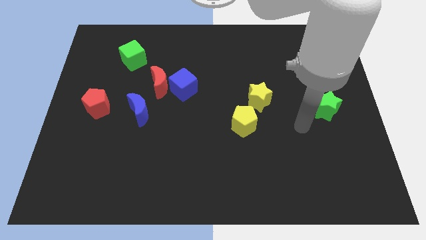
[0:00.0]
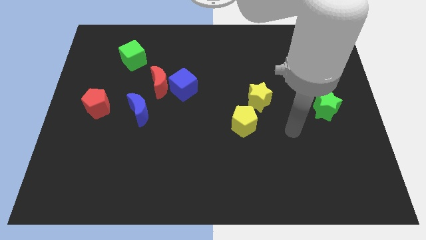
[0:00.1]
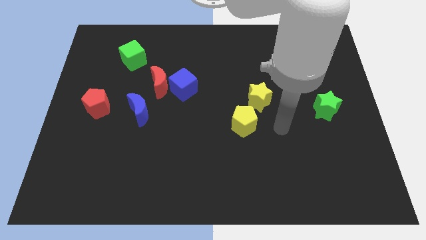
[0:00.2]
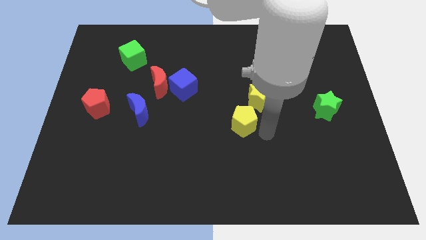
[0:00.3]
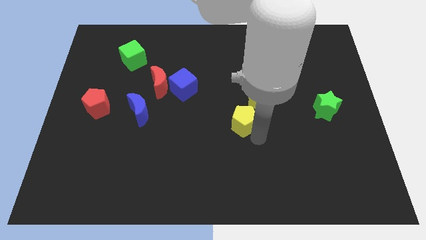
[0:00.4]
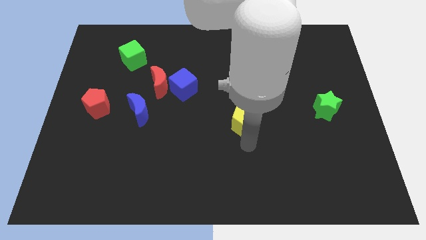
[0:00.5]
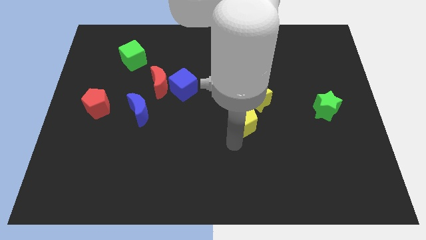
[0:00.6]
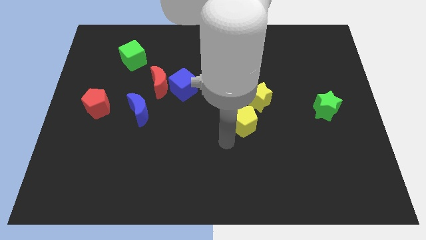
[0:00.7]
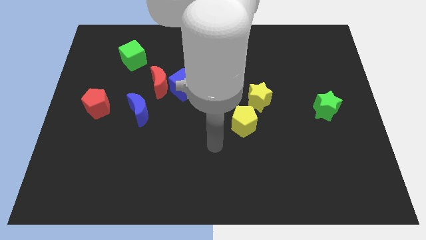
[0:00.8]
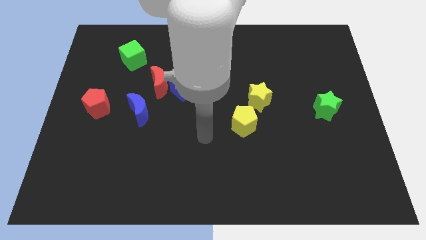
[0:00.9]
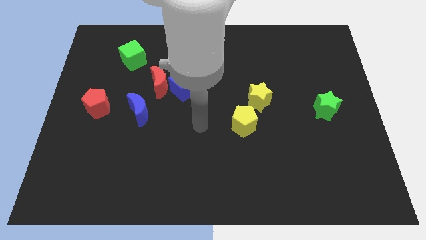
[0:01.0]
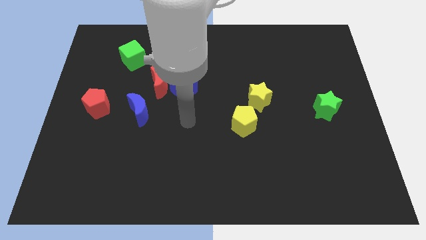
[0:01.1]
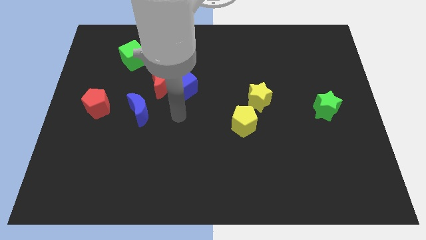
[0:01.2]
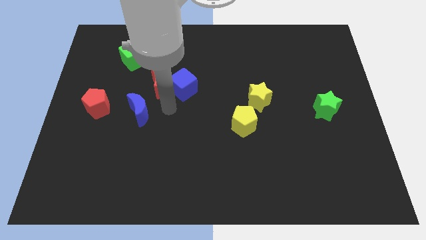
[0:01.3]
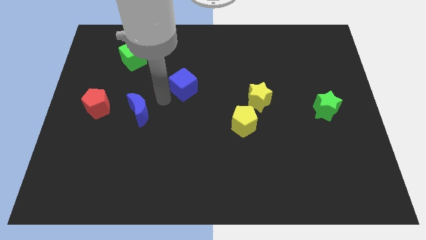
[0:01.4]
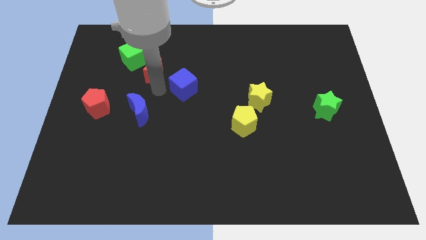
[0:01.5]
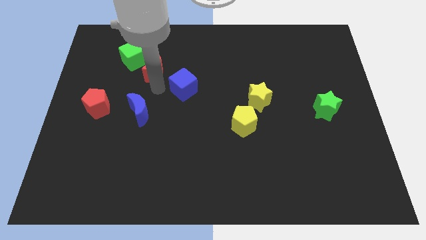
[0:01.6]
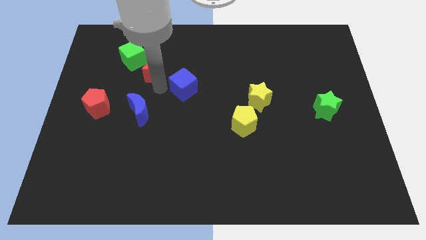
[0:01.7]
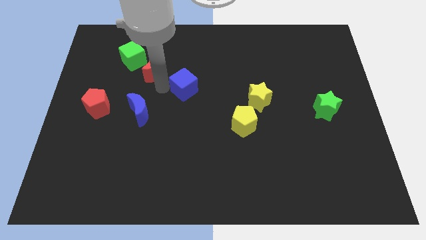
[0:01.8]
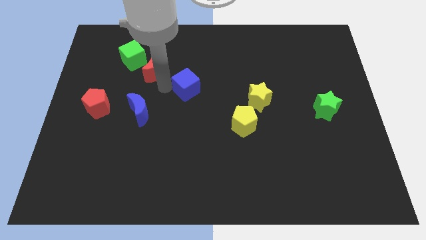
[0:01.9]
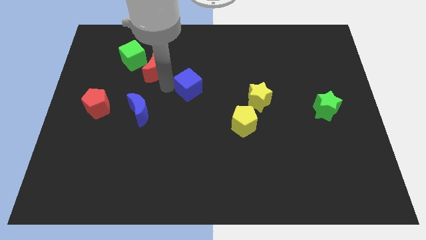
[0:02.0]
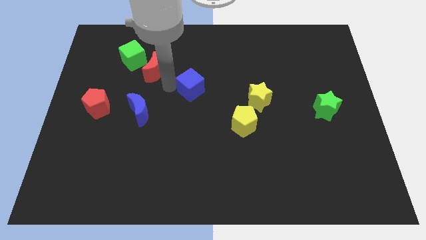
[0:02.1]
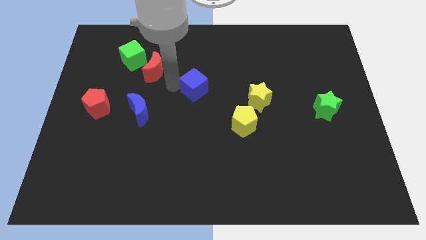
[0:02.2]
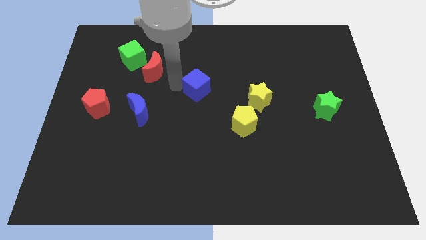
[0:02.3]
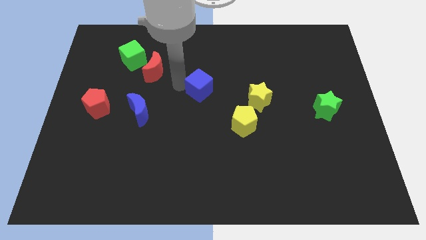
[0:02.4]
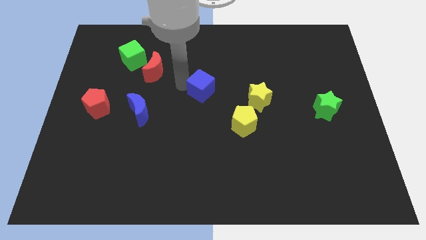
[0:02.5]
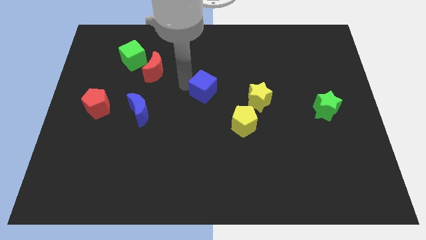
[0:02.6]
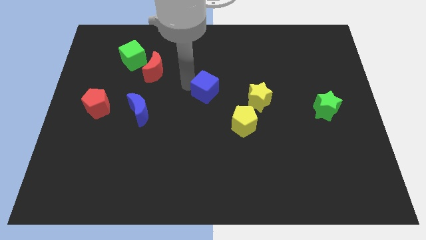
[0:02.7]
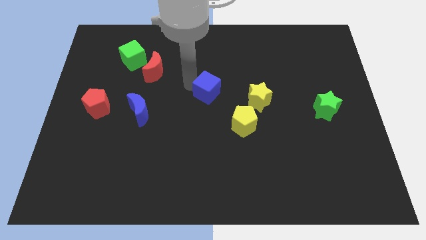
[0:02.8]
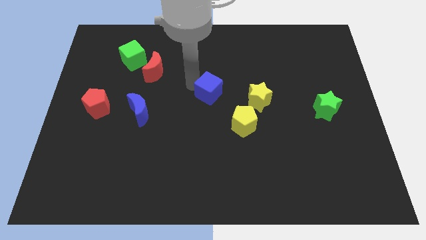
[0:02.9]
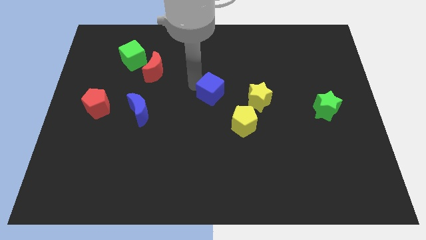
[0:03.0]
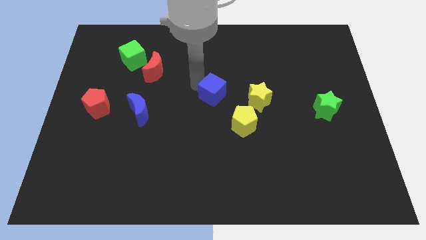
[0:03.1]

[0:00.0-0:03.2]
slightly move the blue cube to the right

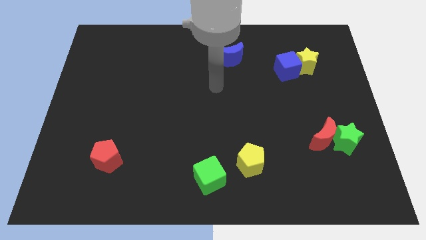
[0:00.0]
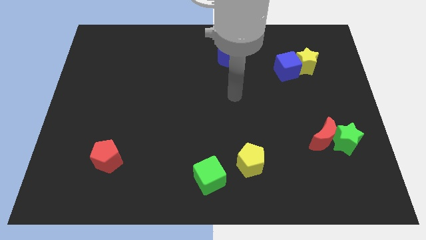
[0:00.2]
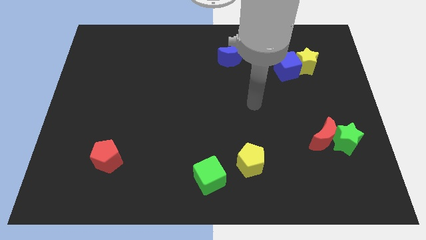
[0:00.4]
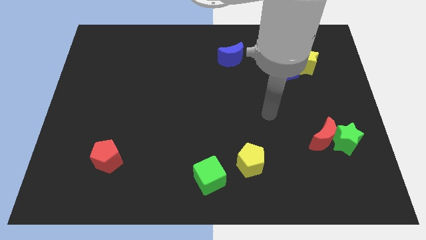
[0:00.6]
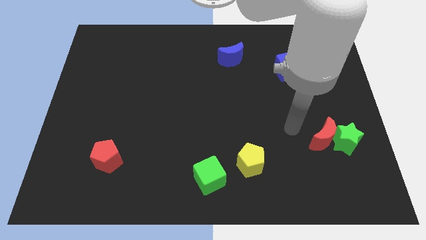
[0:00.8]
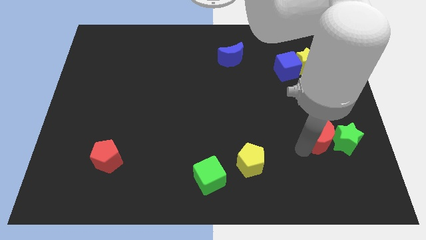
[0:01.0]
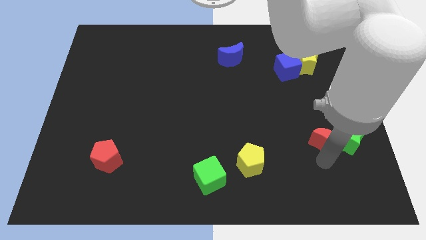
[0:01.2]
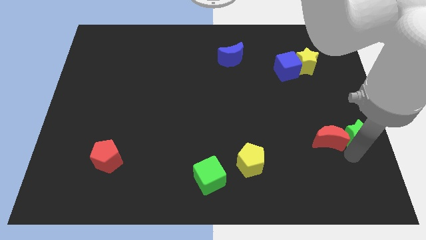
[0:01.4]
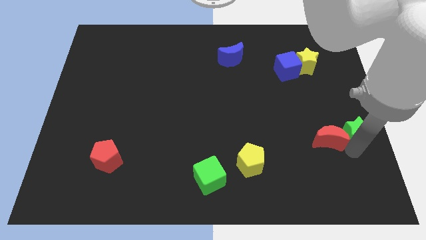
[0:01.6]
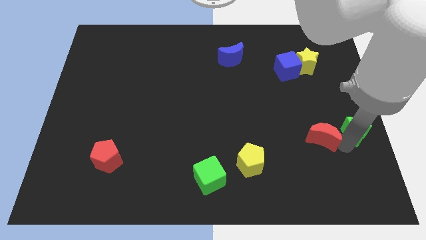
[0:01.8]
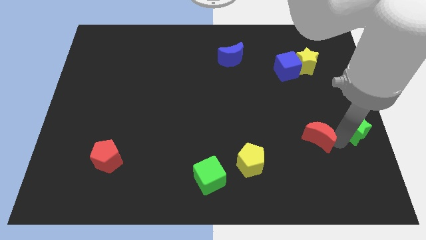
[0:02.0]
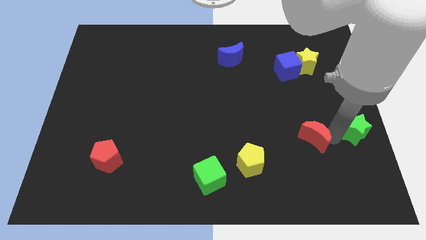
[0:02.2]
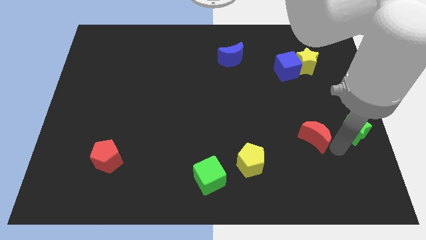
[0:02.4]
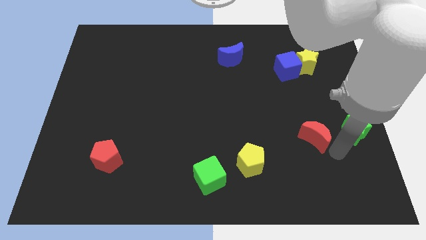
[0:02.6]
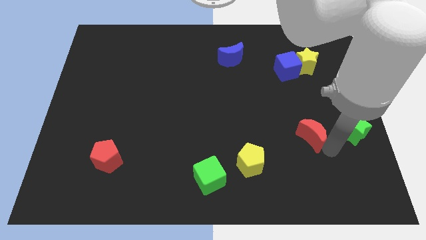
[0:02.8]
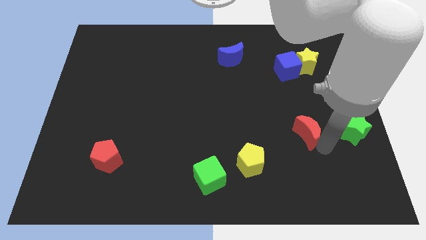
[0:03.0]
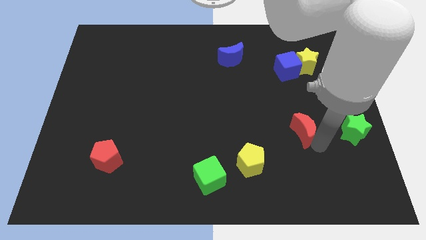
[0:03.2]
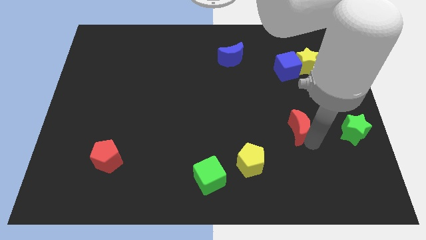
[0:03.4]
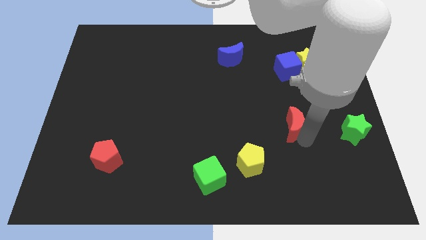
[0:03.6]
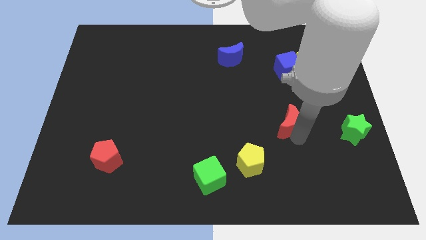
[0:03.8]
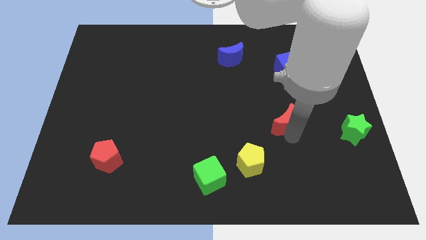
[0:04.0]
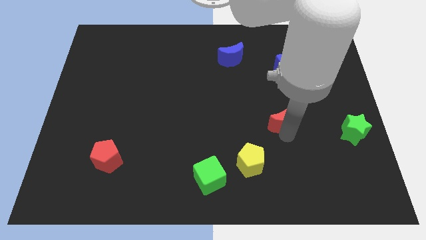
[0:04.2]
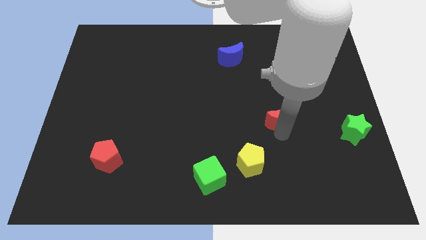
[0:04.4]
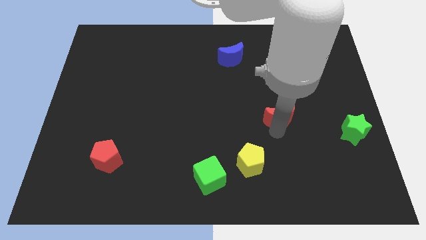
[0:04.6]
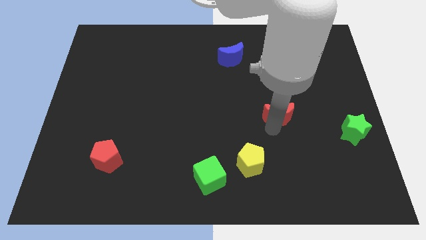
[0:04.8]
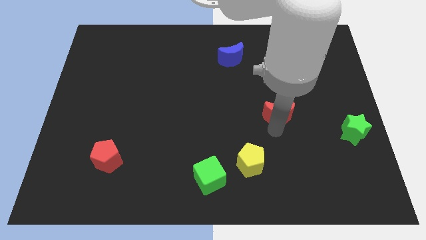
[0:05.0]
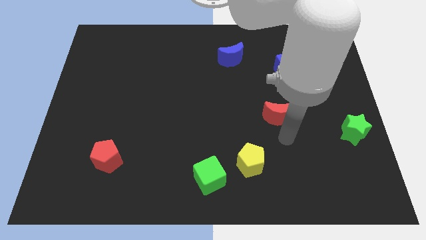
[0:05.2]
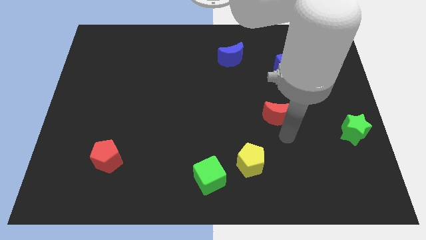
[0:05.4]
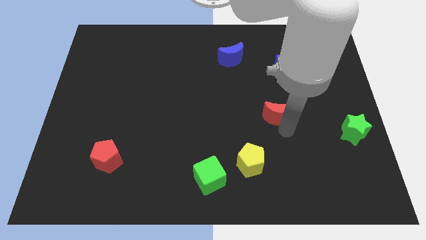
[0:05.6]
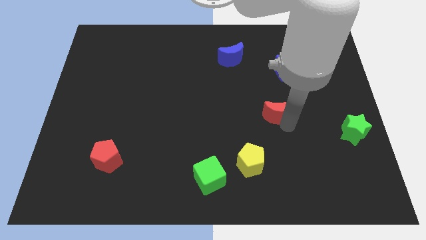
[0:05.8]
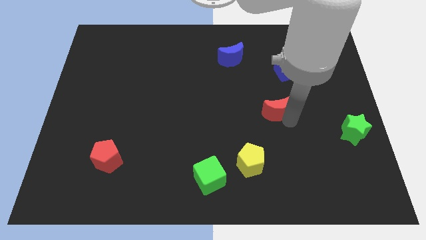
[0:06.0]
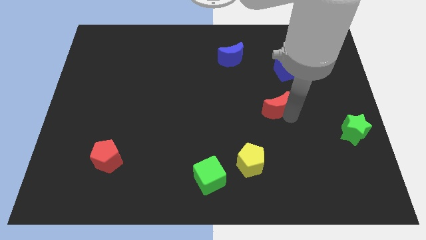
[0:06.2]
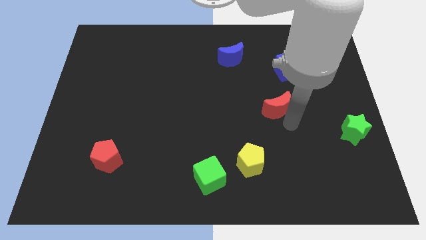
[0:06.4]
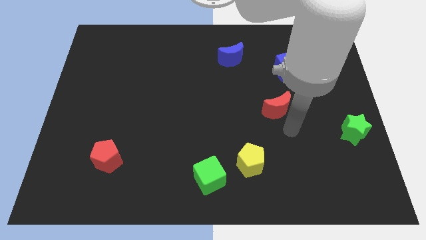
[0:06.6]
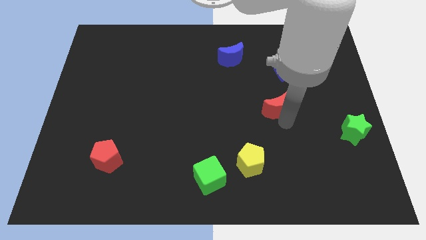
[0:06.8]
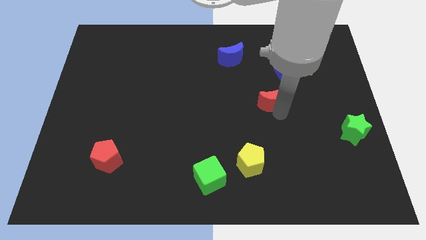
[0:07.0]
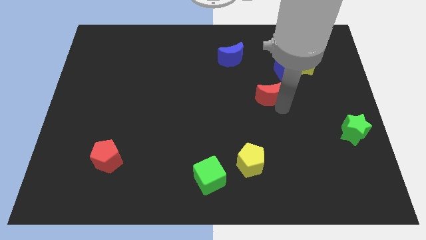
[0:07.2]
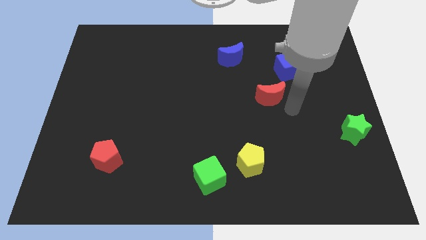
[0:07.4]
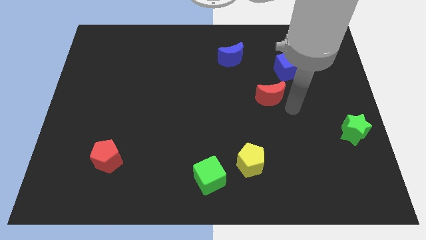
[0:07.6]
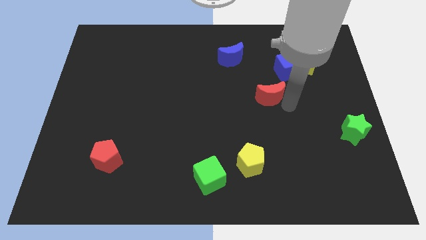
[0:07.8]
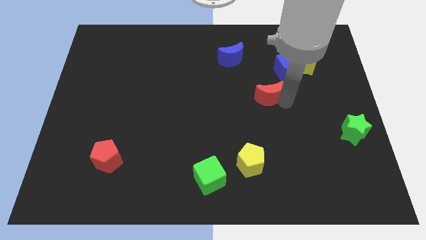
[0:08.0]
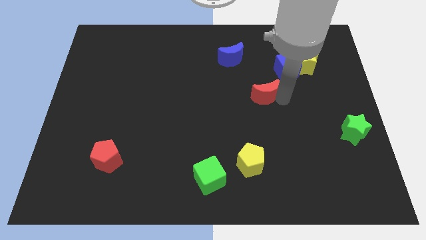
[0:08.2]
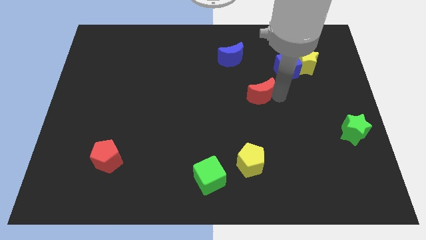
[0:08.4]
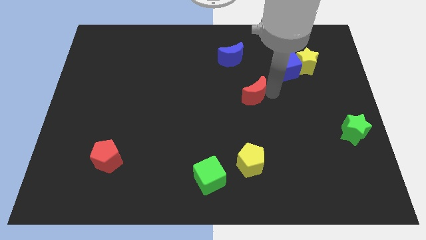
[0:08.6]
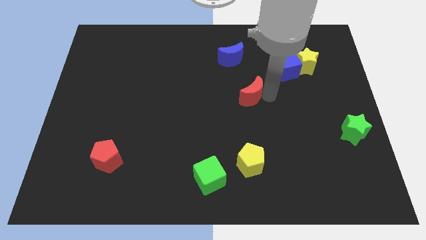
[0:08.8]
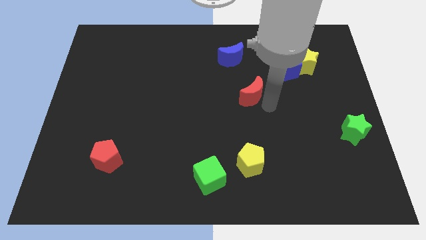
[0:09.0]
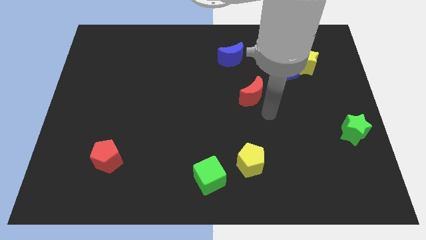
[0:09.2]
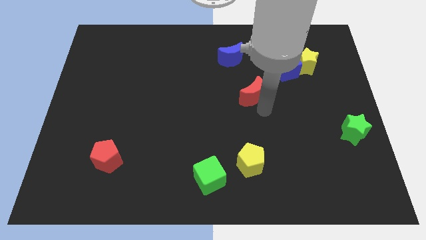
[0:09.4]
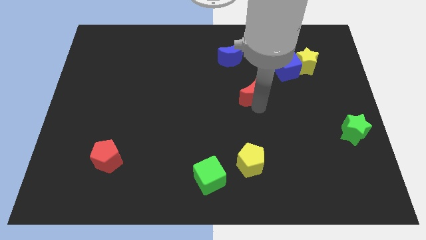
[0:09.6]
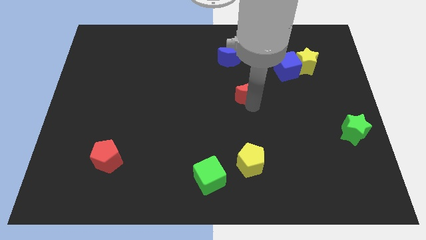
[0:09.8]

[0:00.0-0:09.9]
push the red moon diagonally up and to the left
